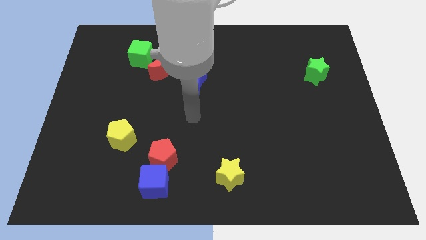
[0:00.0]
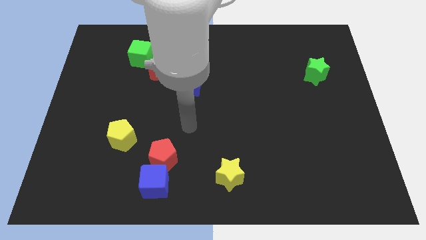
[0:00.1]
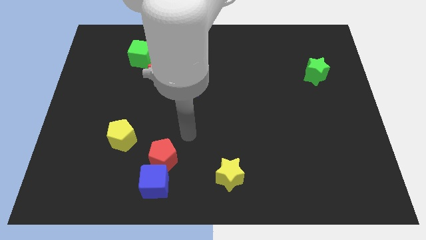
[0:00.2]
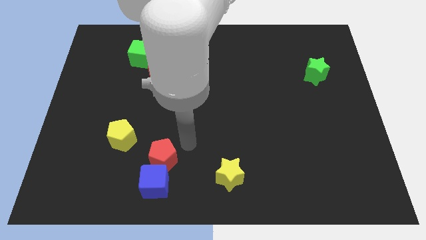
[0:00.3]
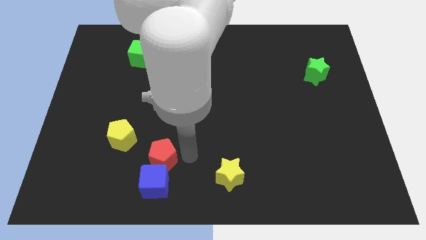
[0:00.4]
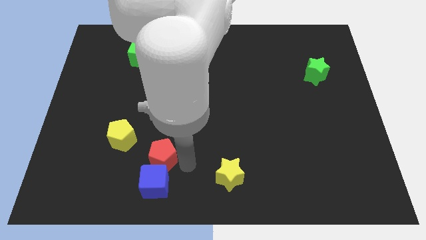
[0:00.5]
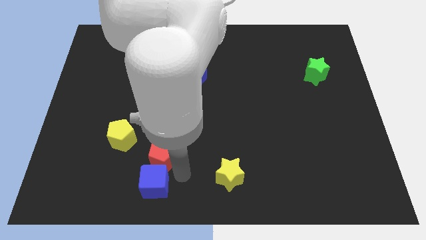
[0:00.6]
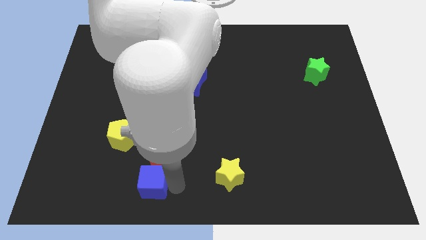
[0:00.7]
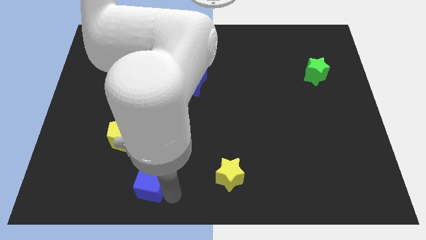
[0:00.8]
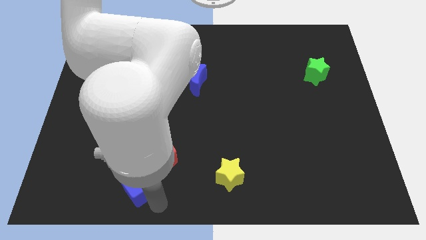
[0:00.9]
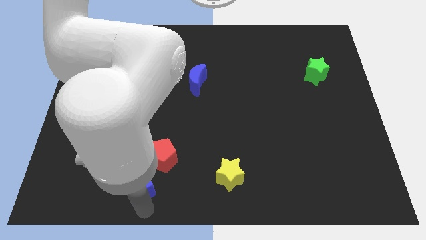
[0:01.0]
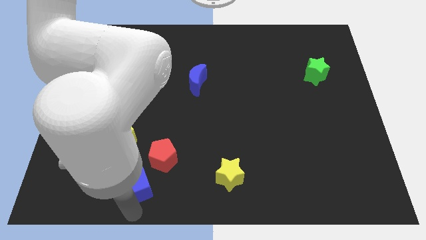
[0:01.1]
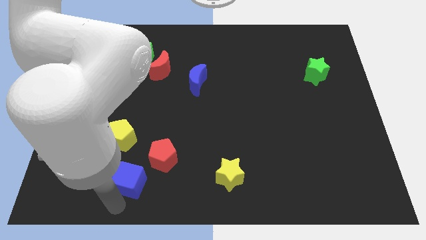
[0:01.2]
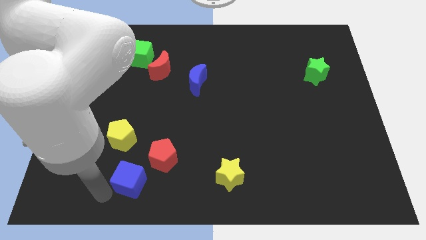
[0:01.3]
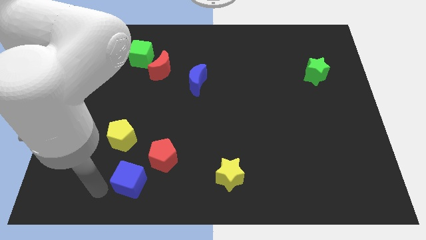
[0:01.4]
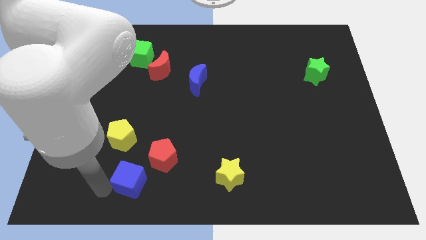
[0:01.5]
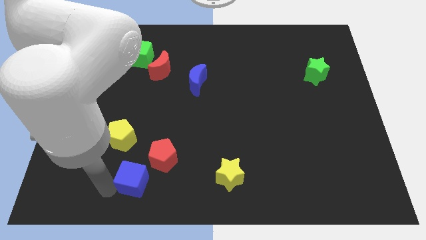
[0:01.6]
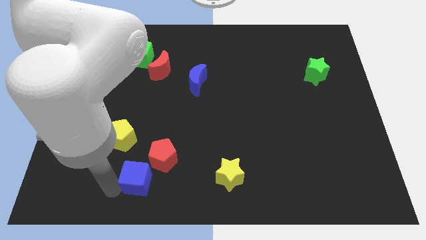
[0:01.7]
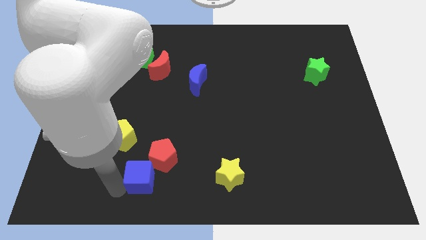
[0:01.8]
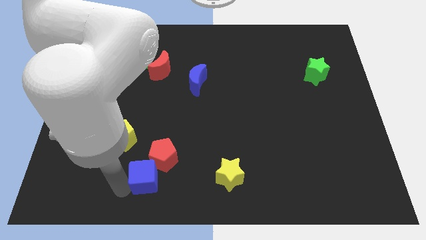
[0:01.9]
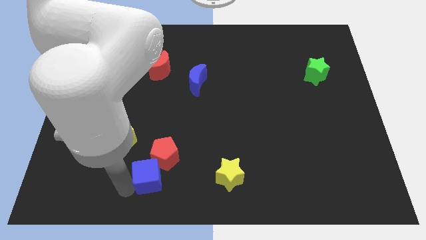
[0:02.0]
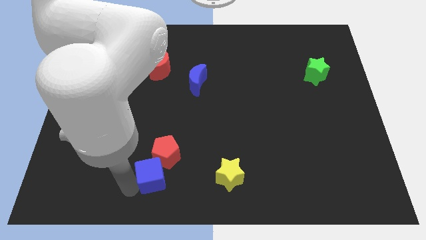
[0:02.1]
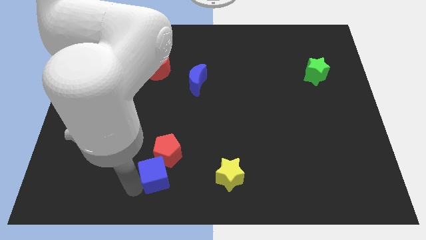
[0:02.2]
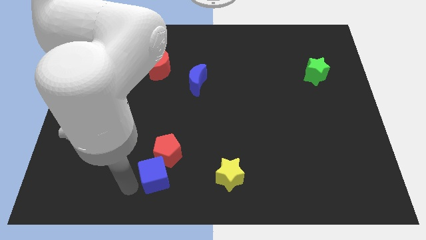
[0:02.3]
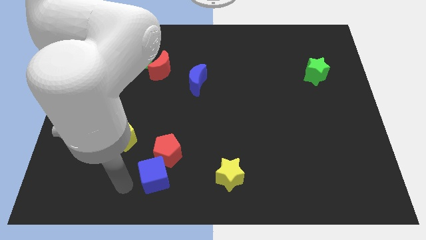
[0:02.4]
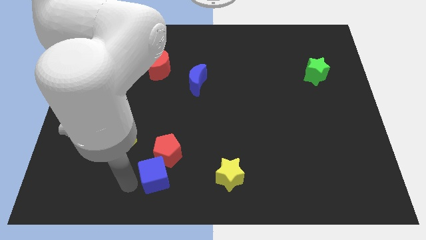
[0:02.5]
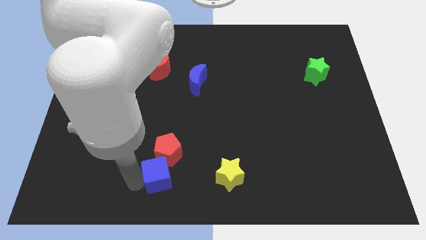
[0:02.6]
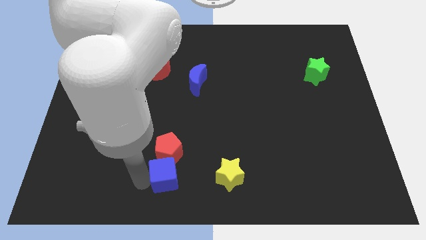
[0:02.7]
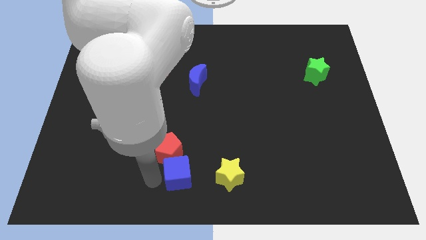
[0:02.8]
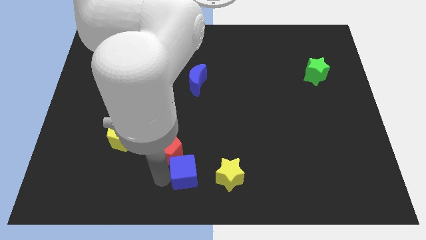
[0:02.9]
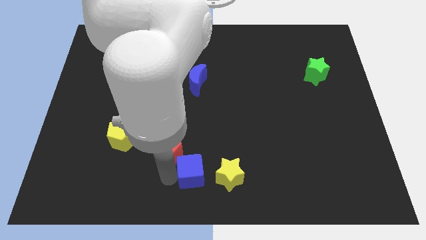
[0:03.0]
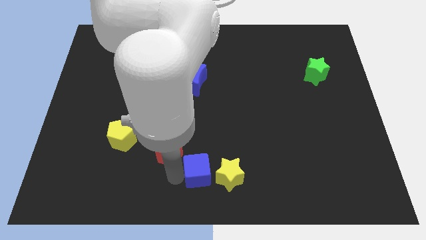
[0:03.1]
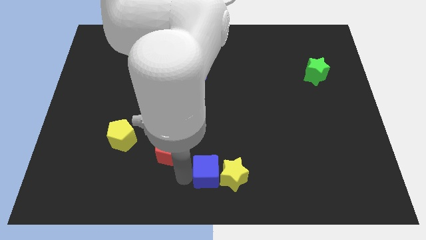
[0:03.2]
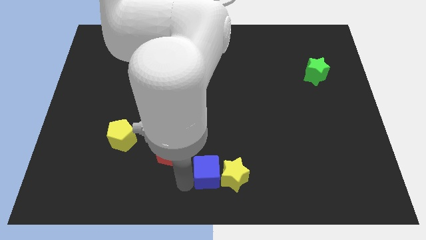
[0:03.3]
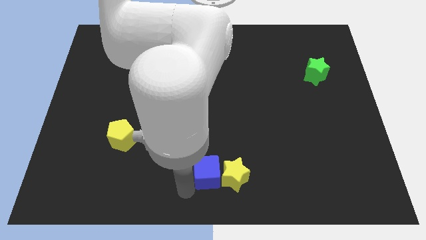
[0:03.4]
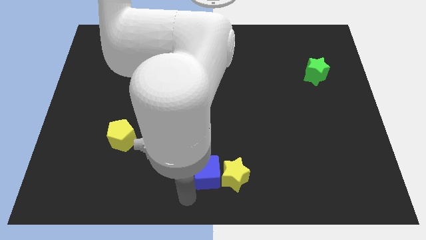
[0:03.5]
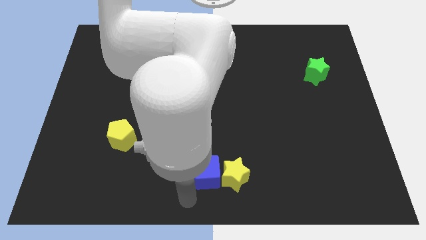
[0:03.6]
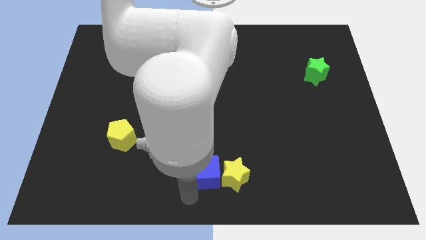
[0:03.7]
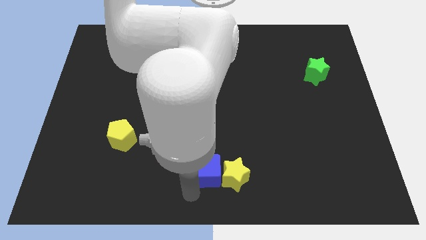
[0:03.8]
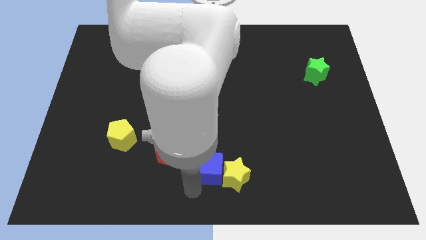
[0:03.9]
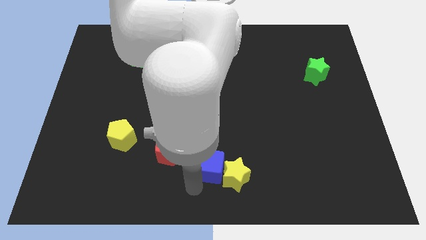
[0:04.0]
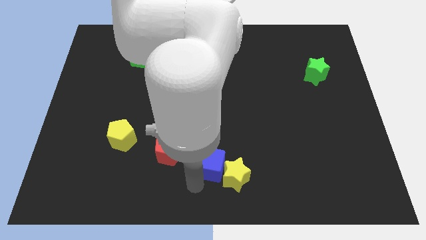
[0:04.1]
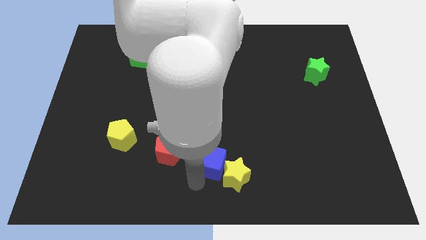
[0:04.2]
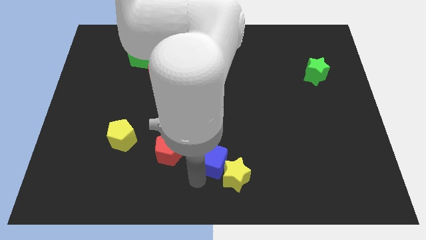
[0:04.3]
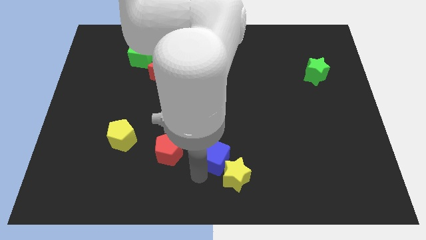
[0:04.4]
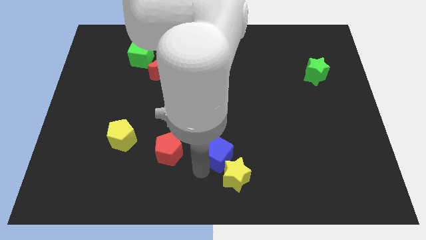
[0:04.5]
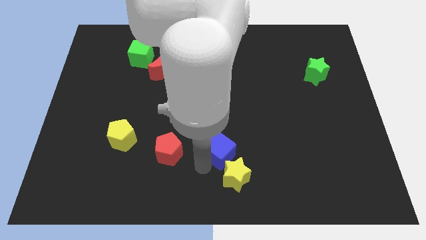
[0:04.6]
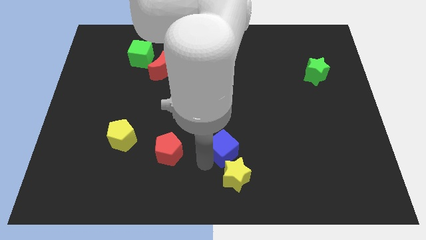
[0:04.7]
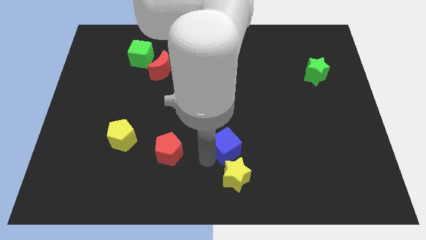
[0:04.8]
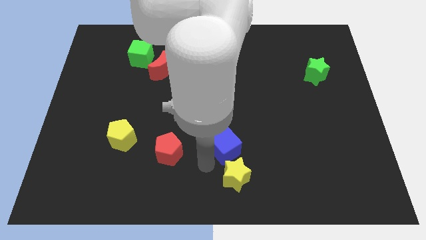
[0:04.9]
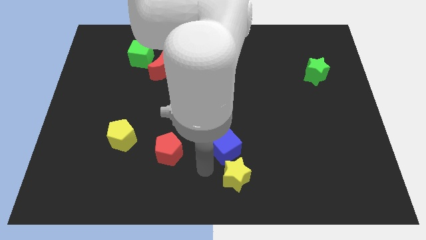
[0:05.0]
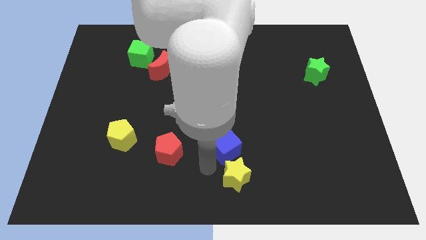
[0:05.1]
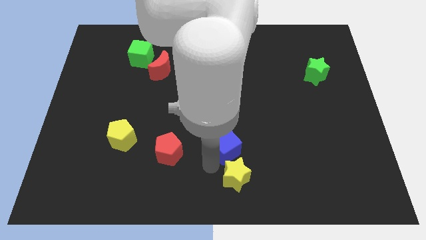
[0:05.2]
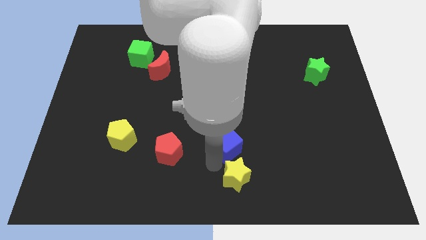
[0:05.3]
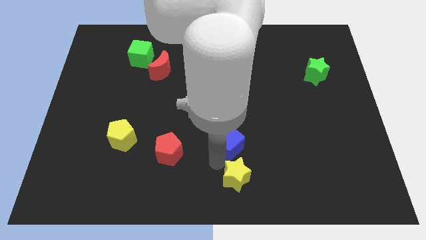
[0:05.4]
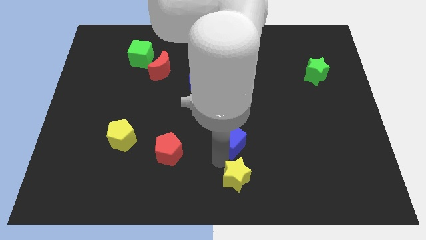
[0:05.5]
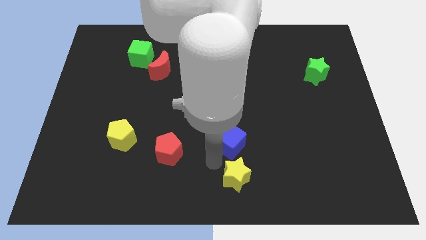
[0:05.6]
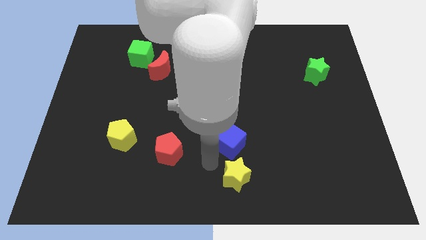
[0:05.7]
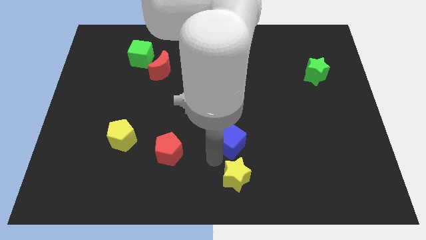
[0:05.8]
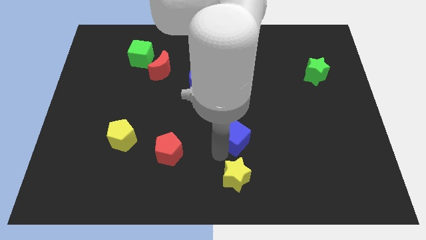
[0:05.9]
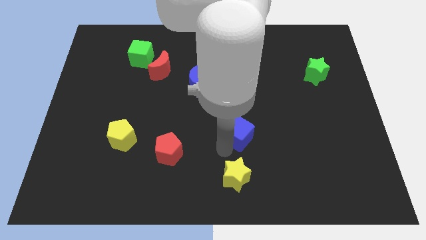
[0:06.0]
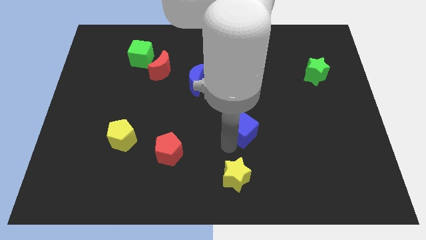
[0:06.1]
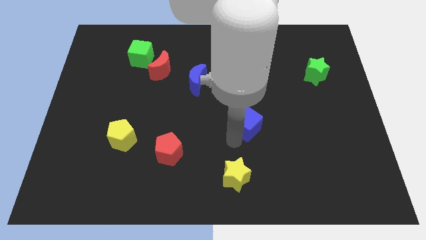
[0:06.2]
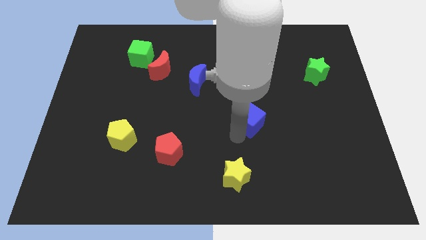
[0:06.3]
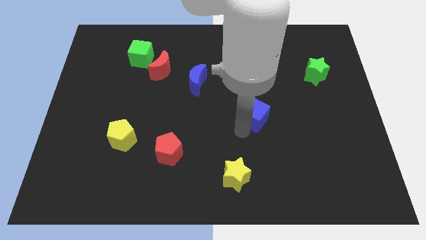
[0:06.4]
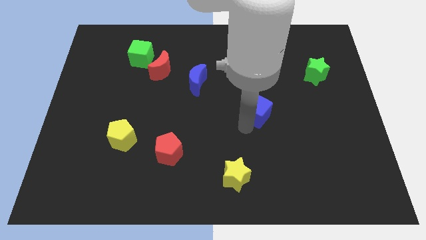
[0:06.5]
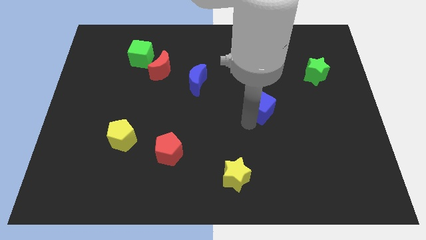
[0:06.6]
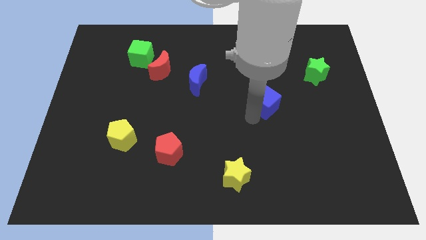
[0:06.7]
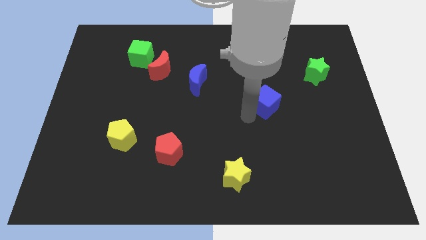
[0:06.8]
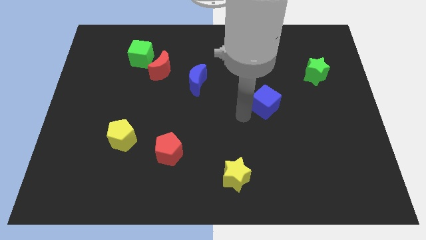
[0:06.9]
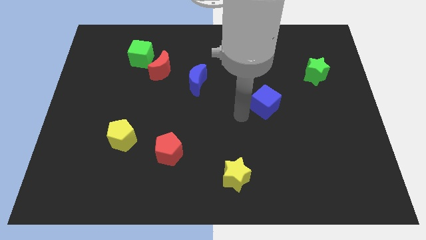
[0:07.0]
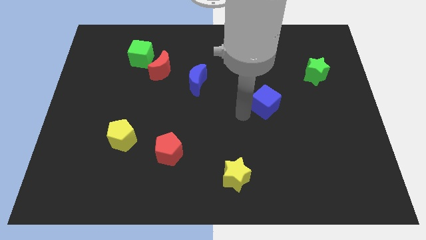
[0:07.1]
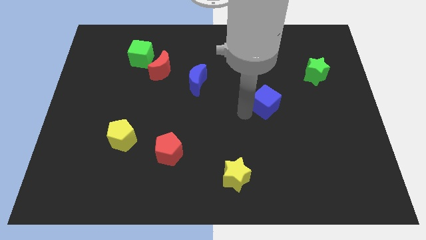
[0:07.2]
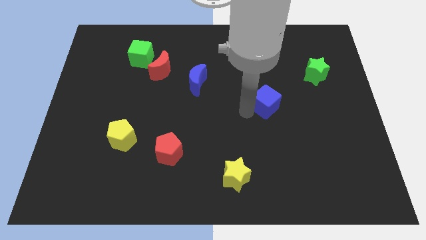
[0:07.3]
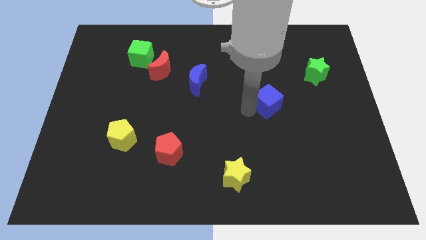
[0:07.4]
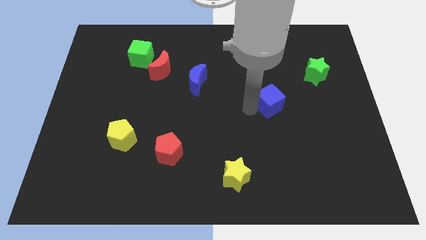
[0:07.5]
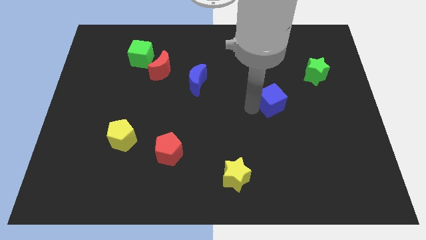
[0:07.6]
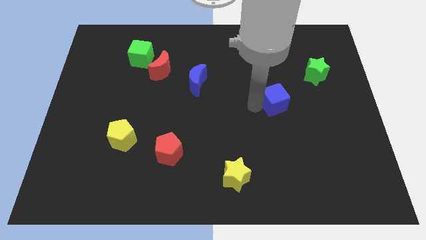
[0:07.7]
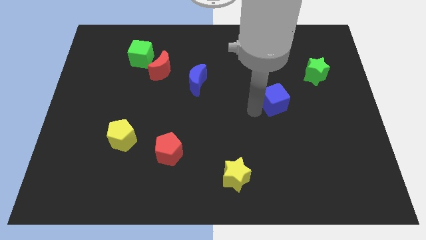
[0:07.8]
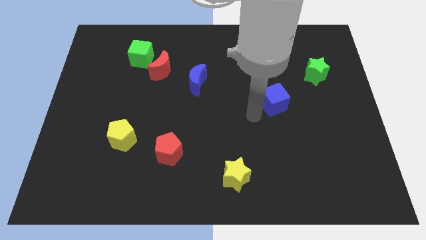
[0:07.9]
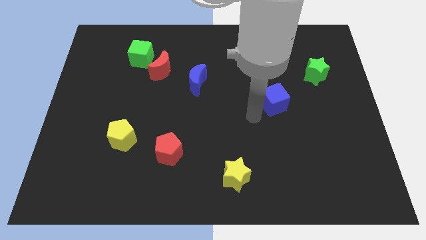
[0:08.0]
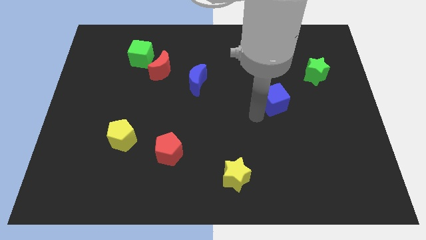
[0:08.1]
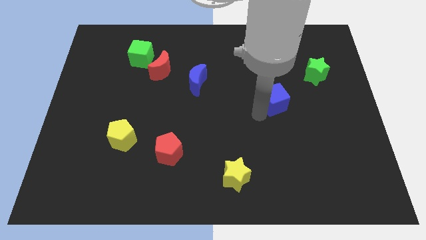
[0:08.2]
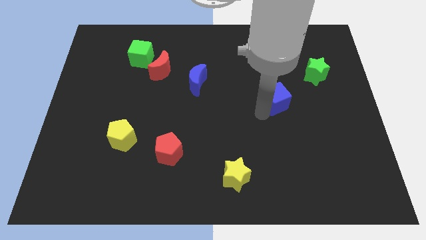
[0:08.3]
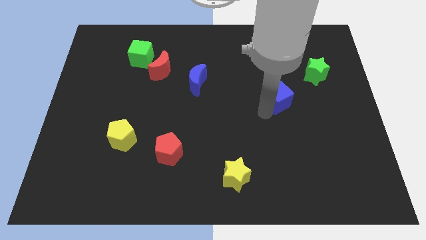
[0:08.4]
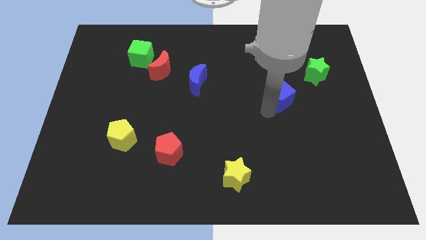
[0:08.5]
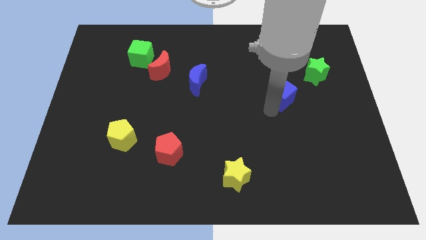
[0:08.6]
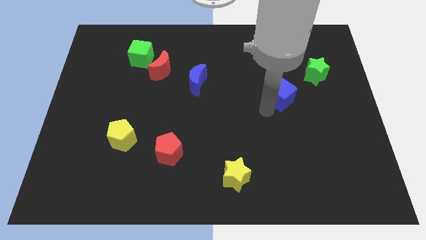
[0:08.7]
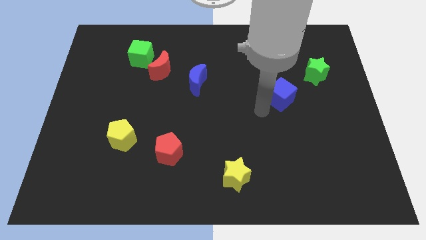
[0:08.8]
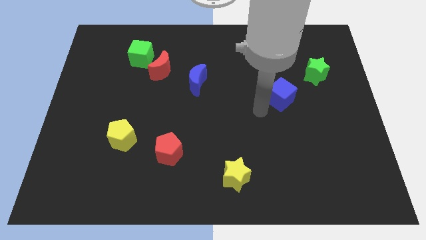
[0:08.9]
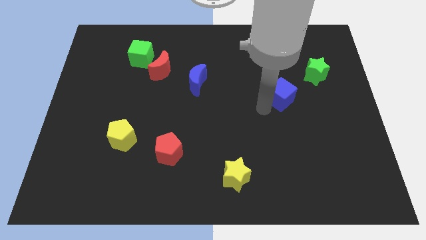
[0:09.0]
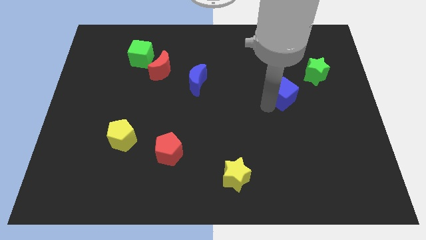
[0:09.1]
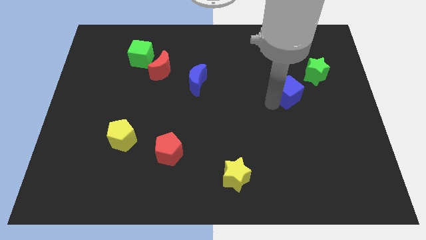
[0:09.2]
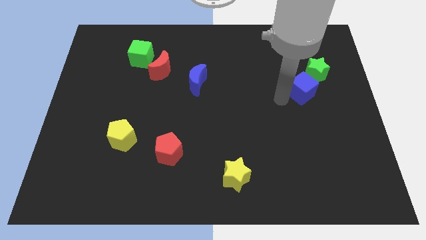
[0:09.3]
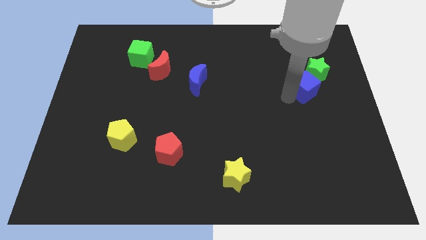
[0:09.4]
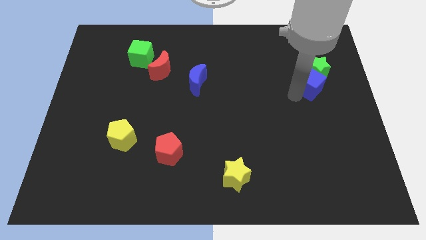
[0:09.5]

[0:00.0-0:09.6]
move the blue cube to the green star
